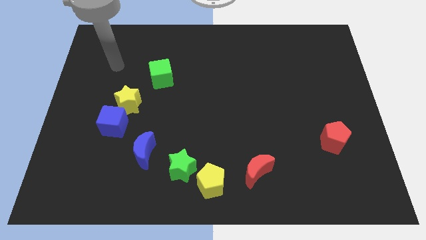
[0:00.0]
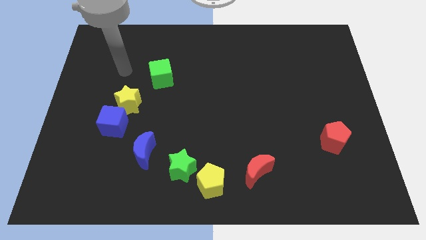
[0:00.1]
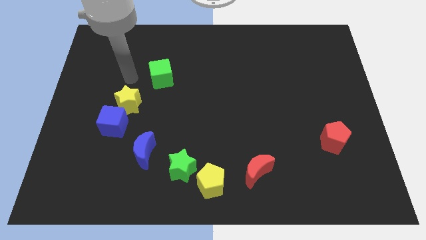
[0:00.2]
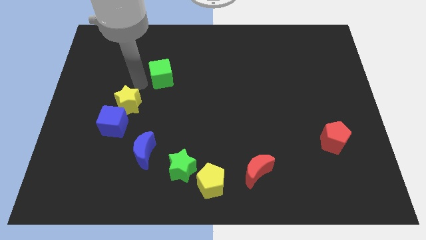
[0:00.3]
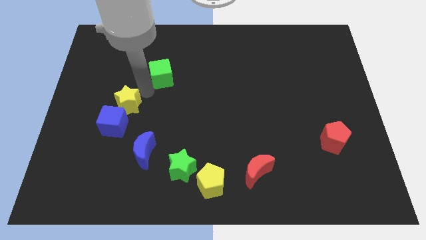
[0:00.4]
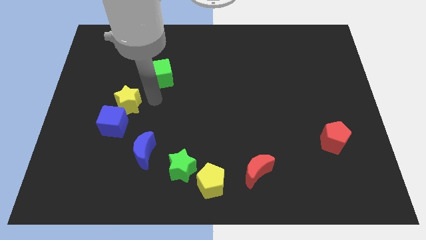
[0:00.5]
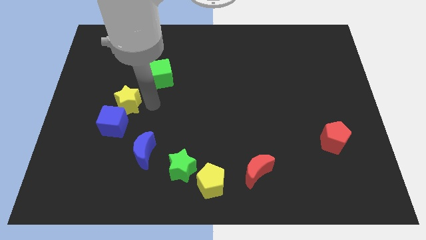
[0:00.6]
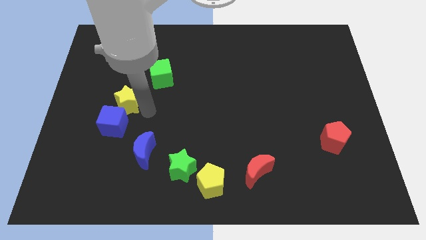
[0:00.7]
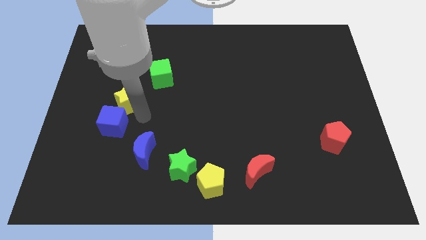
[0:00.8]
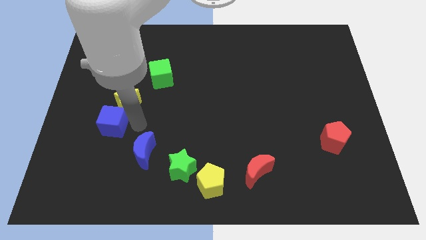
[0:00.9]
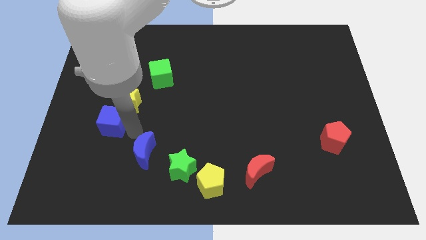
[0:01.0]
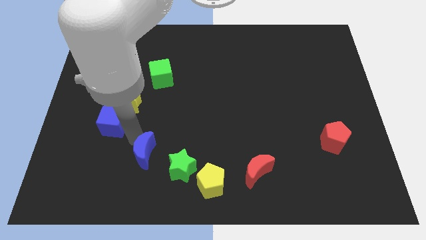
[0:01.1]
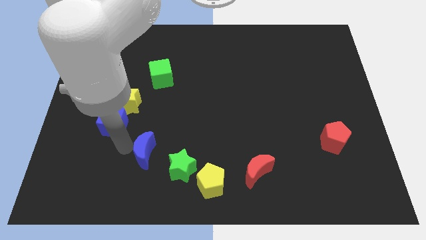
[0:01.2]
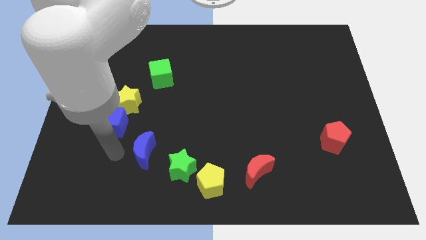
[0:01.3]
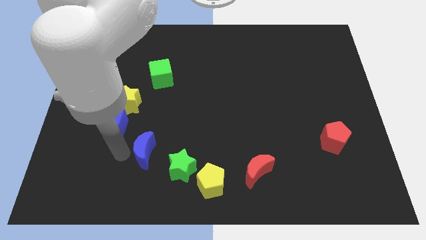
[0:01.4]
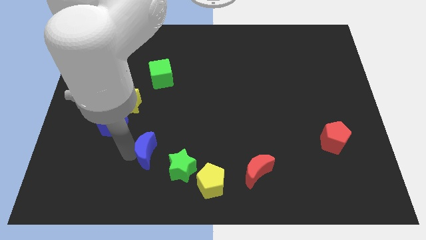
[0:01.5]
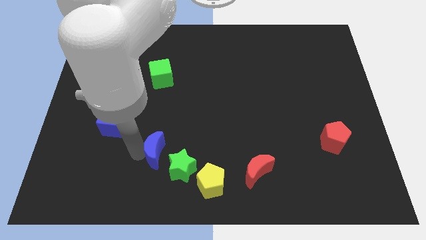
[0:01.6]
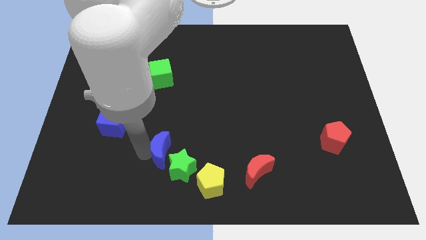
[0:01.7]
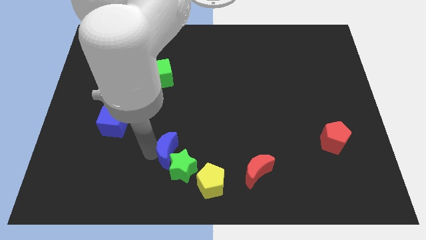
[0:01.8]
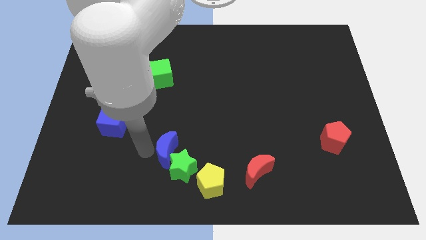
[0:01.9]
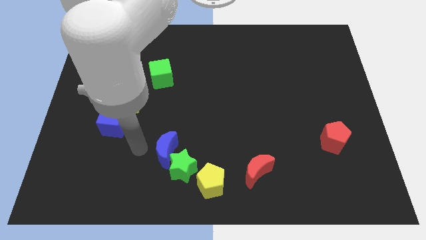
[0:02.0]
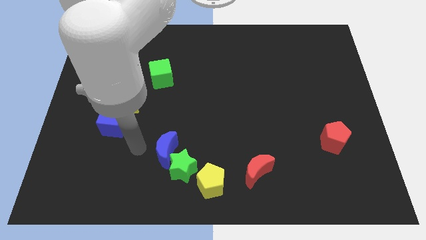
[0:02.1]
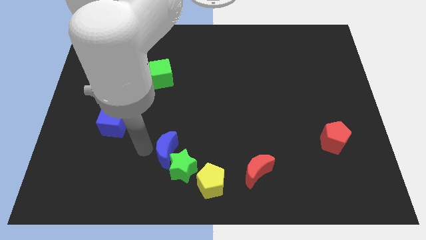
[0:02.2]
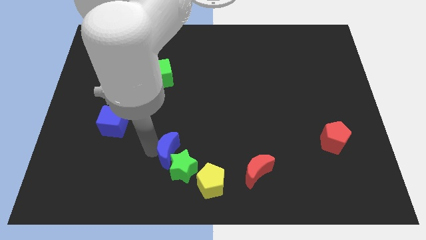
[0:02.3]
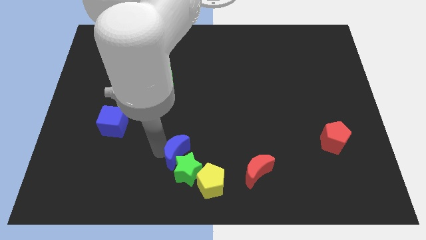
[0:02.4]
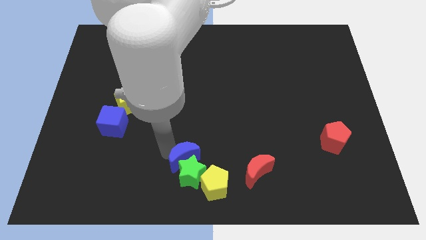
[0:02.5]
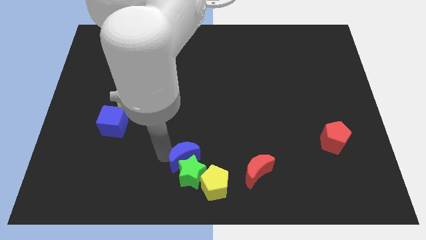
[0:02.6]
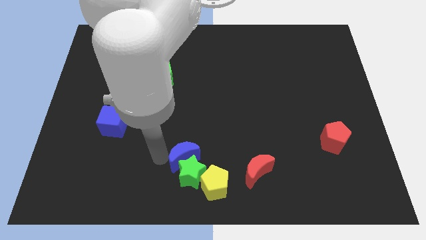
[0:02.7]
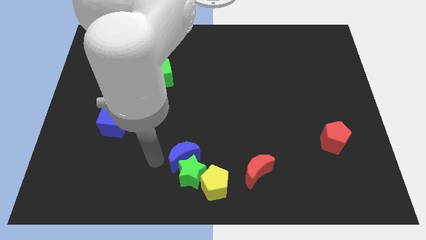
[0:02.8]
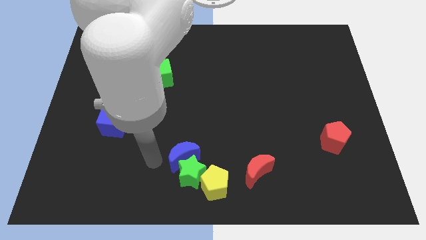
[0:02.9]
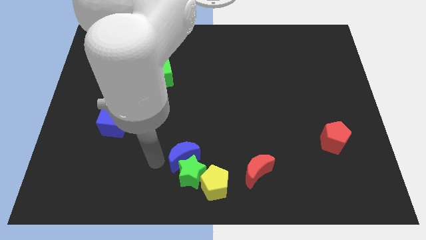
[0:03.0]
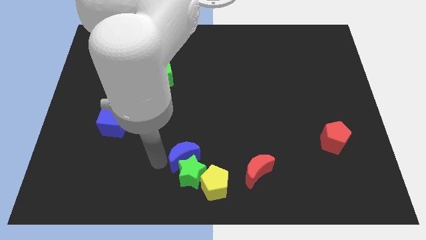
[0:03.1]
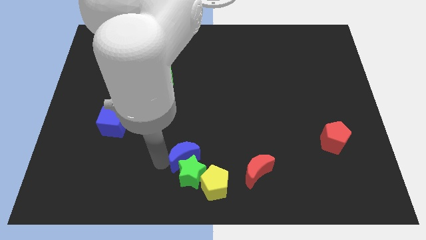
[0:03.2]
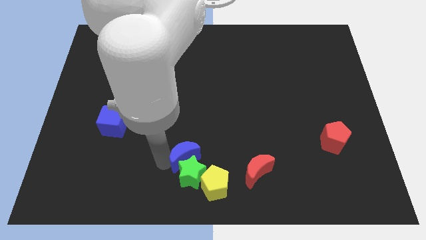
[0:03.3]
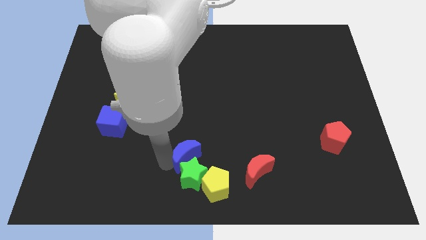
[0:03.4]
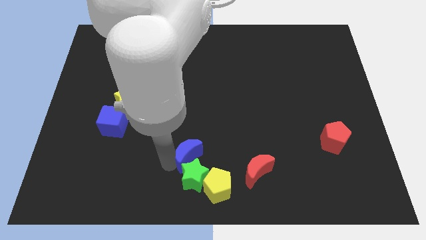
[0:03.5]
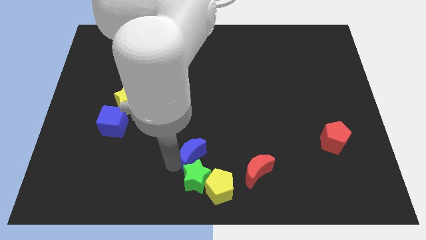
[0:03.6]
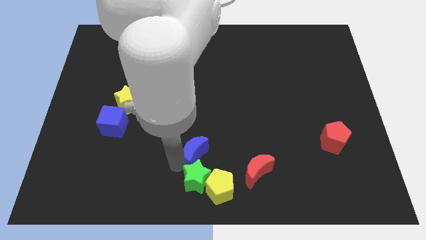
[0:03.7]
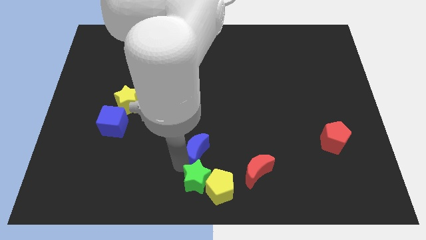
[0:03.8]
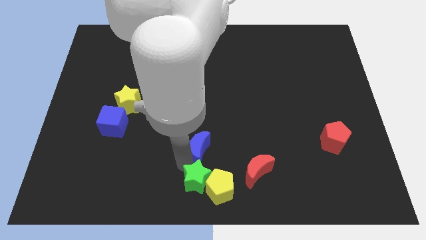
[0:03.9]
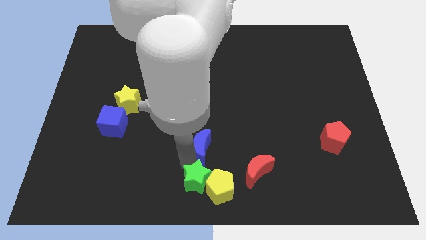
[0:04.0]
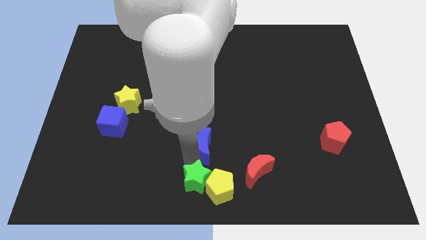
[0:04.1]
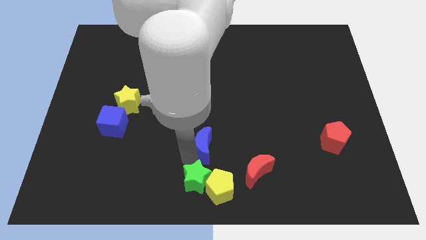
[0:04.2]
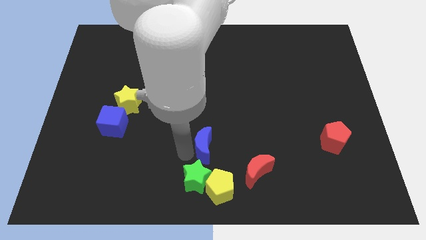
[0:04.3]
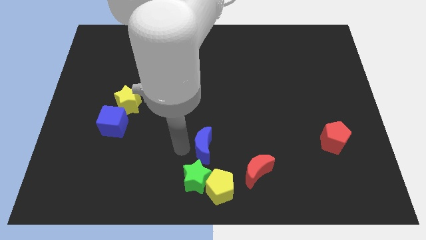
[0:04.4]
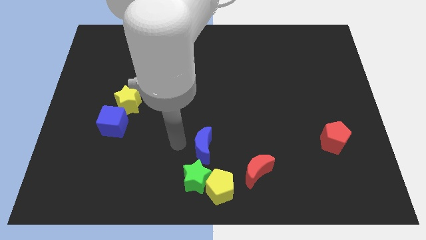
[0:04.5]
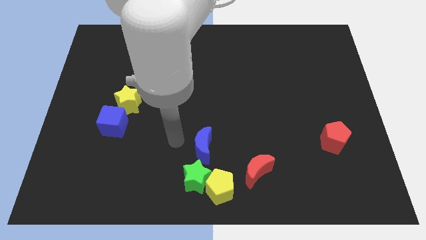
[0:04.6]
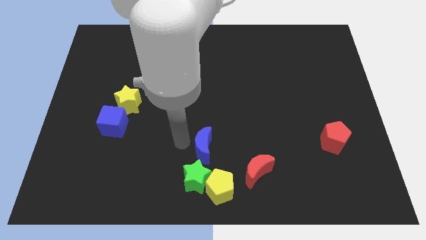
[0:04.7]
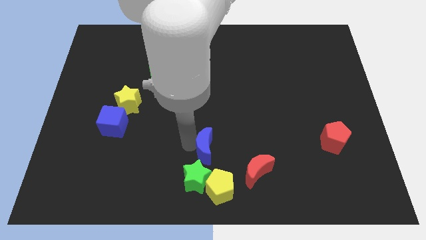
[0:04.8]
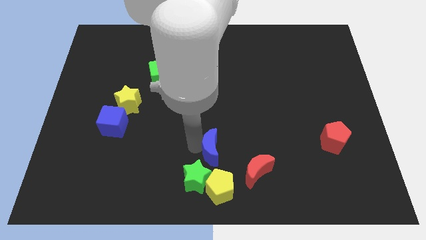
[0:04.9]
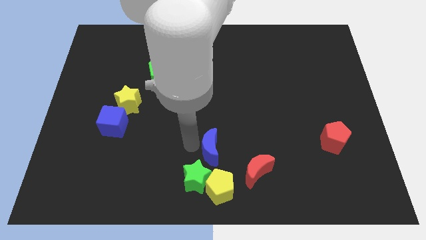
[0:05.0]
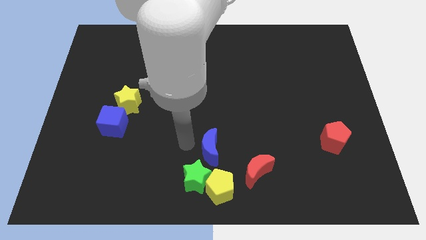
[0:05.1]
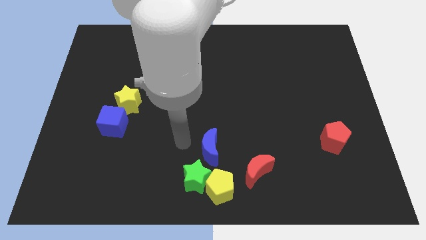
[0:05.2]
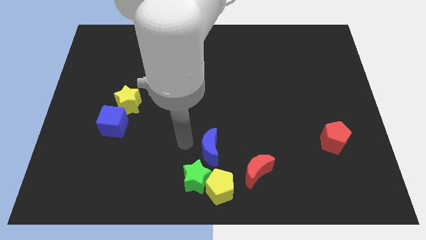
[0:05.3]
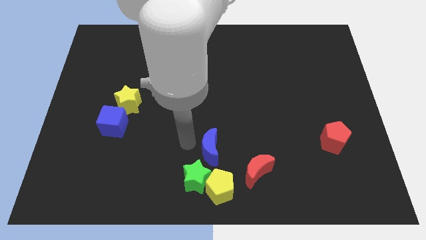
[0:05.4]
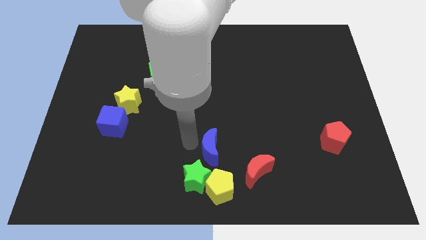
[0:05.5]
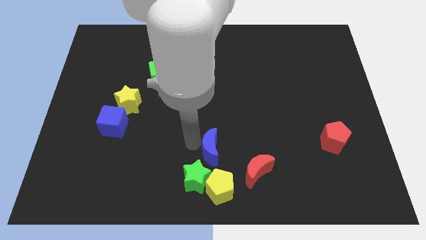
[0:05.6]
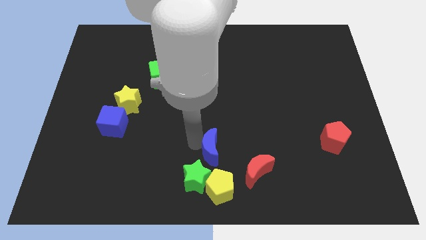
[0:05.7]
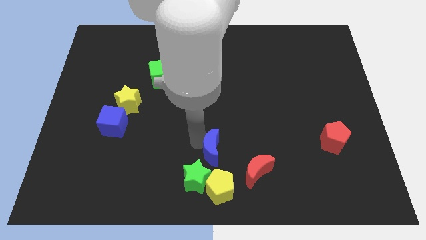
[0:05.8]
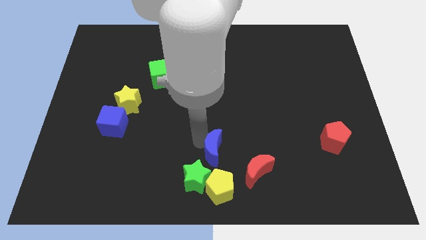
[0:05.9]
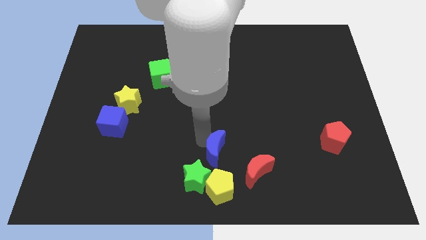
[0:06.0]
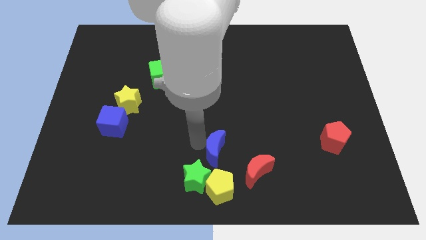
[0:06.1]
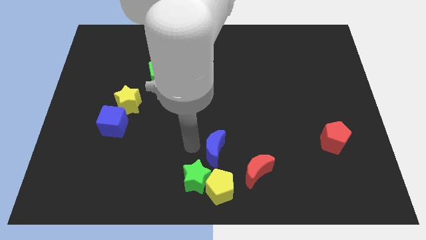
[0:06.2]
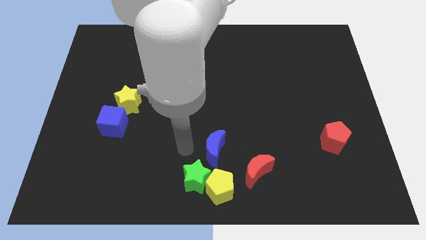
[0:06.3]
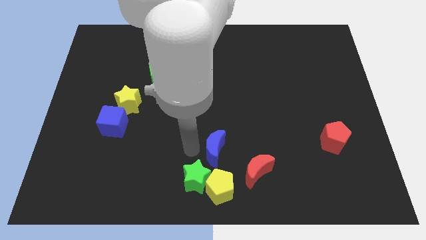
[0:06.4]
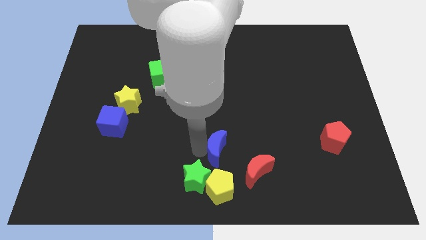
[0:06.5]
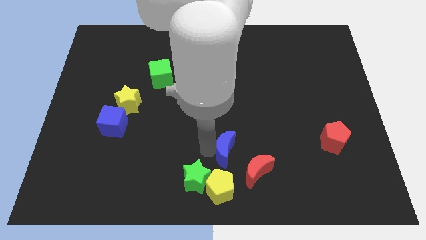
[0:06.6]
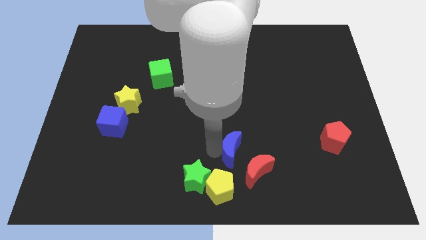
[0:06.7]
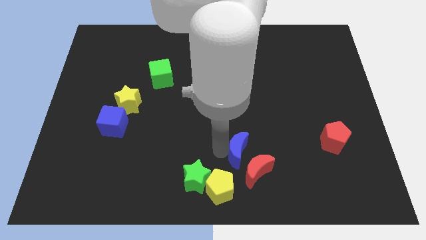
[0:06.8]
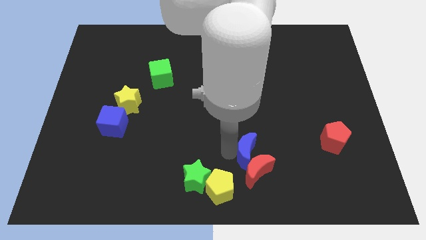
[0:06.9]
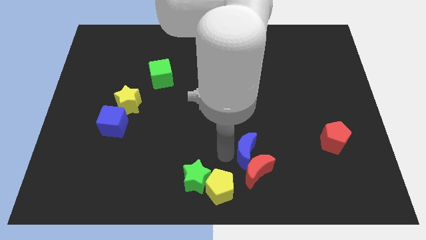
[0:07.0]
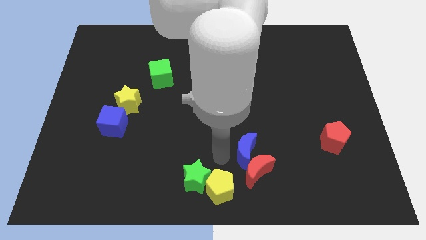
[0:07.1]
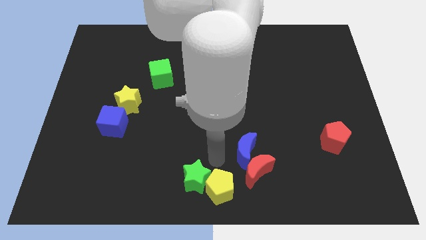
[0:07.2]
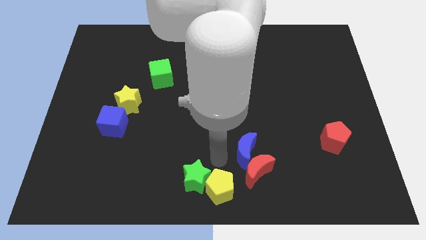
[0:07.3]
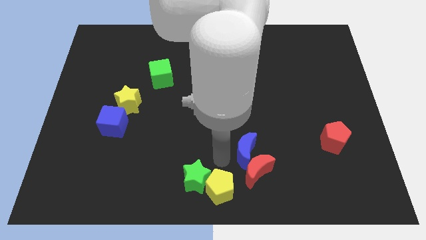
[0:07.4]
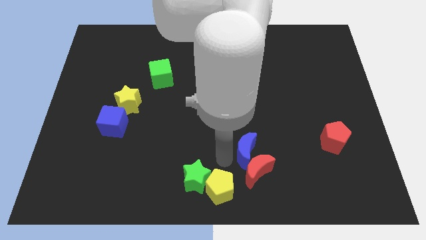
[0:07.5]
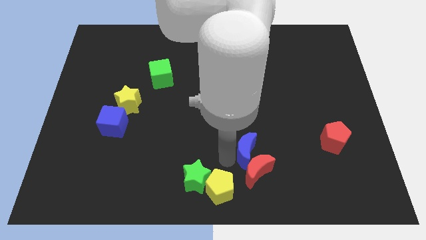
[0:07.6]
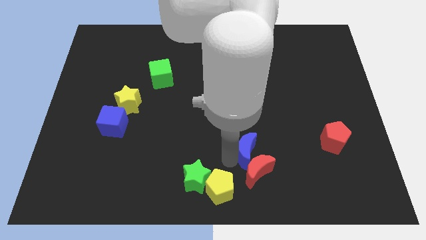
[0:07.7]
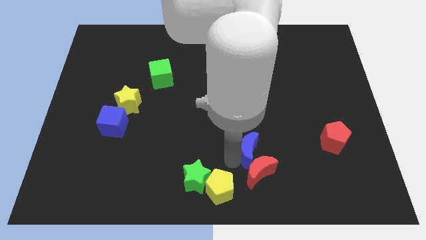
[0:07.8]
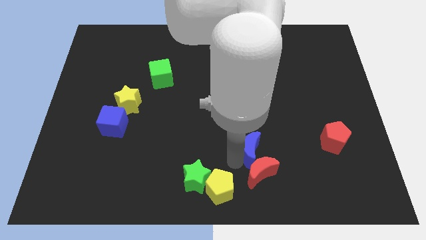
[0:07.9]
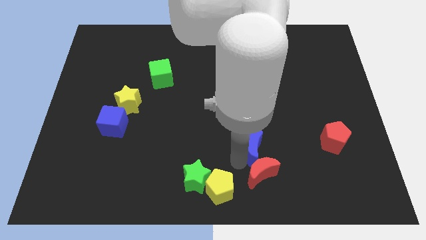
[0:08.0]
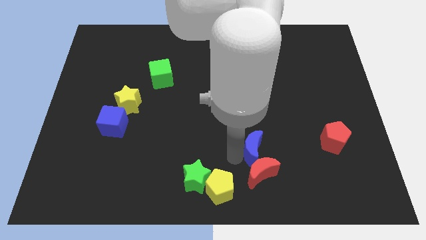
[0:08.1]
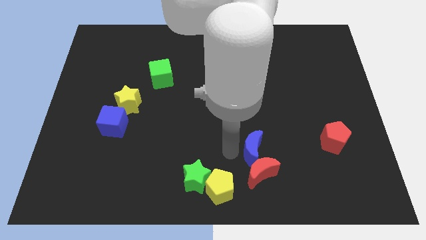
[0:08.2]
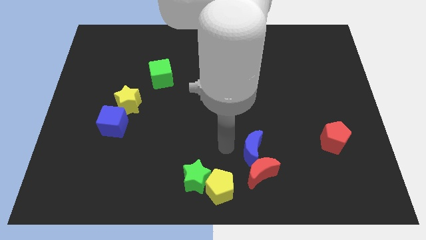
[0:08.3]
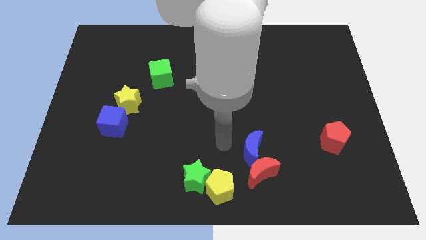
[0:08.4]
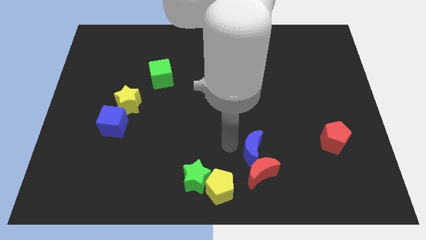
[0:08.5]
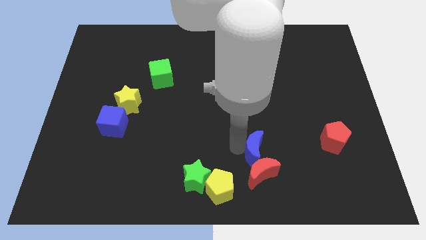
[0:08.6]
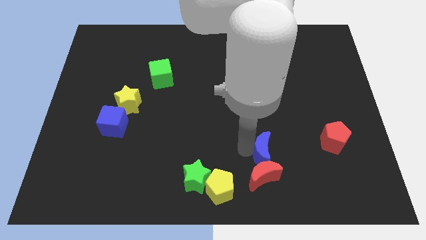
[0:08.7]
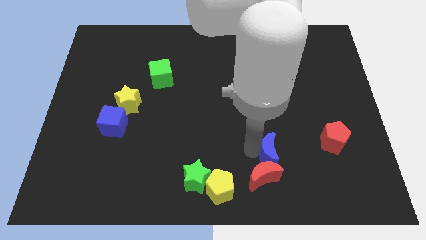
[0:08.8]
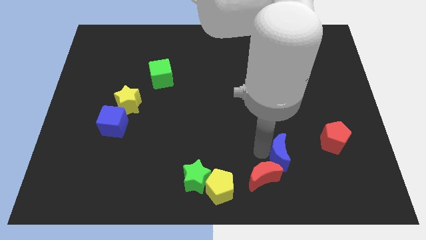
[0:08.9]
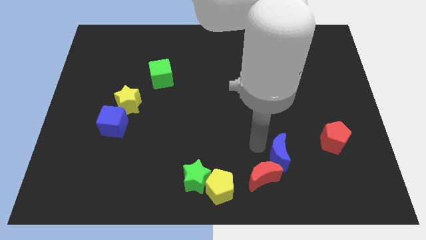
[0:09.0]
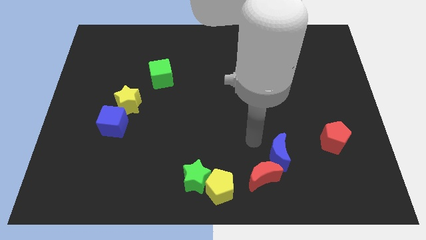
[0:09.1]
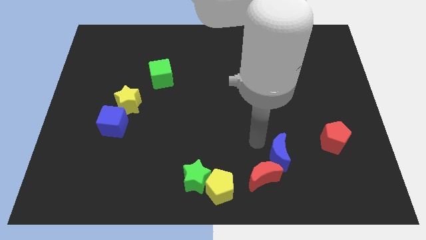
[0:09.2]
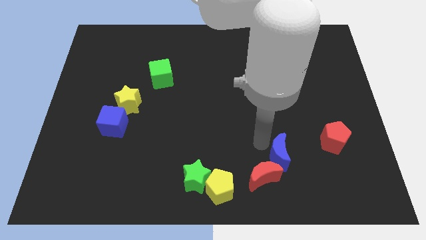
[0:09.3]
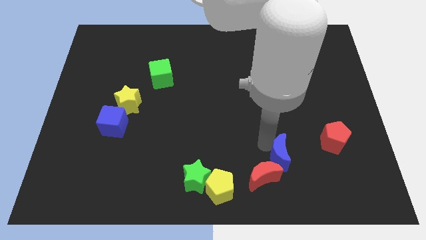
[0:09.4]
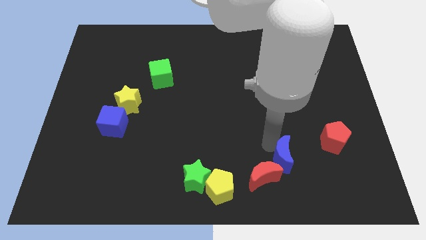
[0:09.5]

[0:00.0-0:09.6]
slide the blue moon to the right of the red moon
